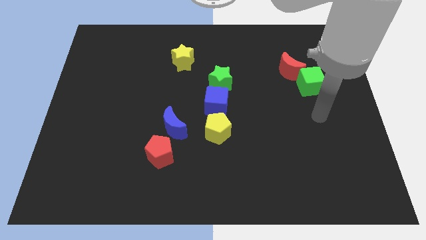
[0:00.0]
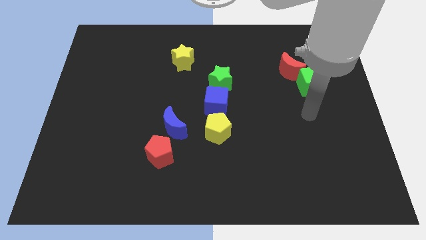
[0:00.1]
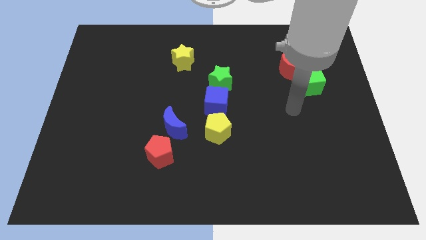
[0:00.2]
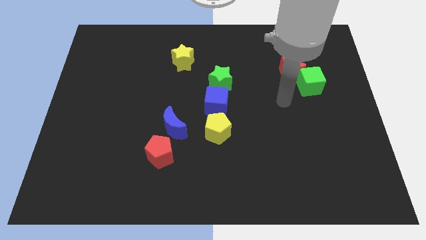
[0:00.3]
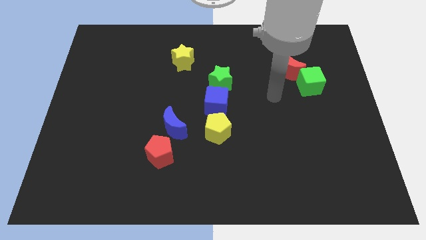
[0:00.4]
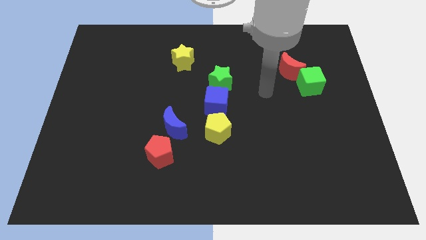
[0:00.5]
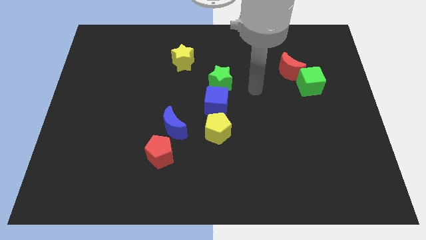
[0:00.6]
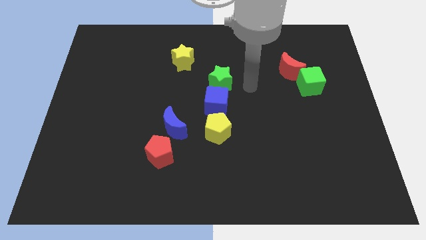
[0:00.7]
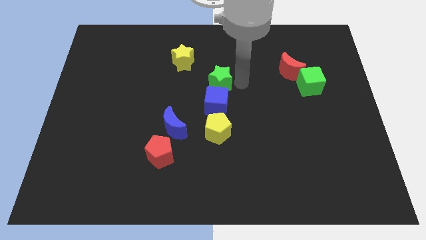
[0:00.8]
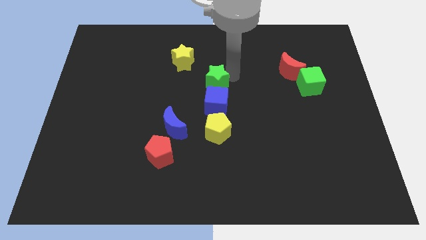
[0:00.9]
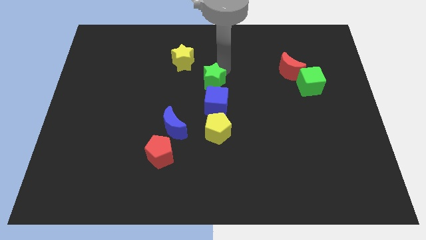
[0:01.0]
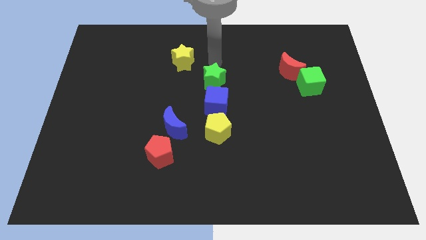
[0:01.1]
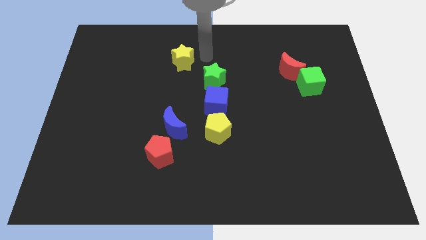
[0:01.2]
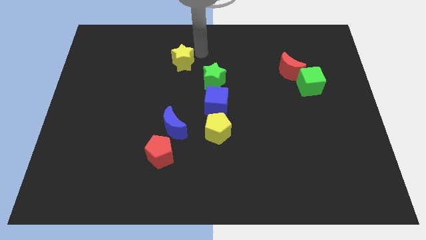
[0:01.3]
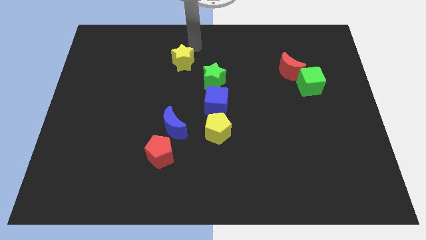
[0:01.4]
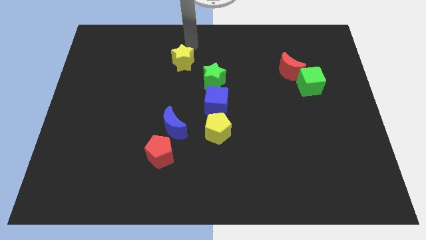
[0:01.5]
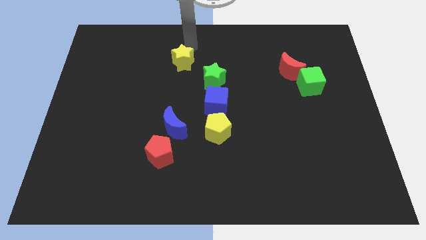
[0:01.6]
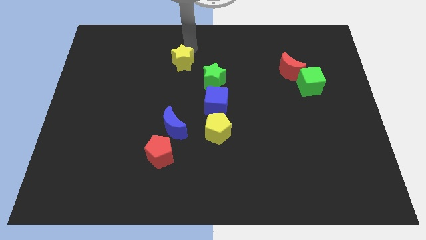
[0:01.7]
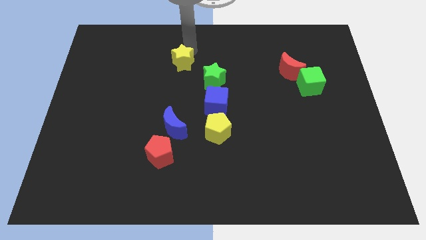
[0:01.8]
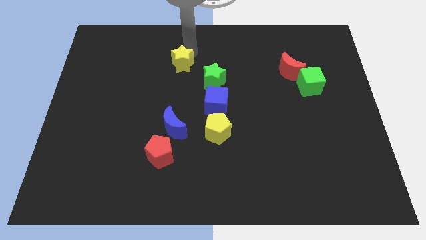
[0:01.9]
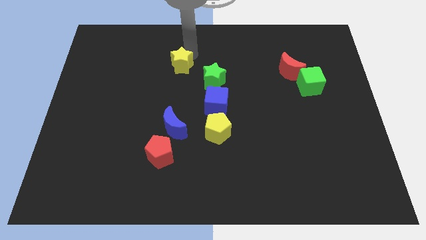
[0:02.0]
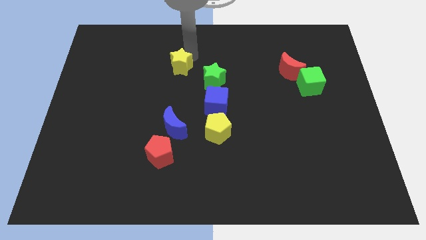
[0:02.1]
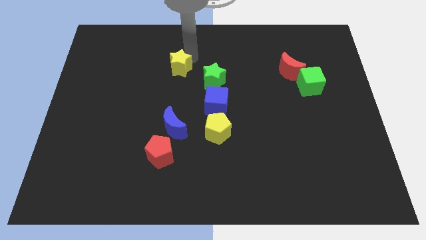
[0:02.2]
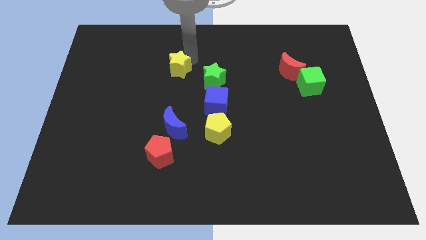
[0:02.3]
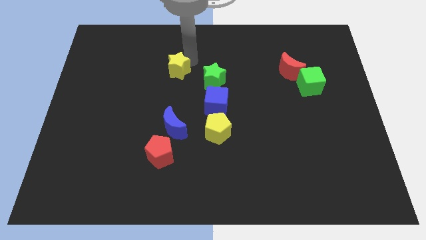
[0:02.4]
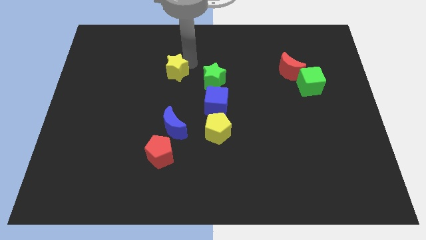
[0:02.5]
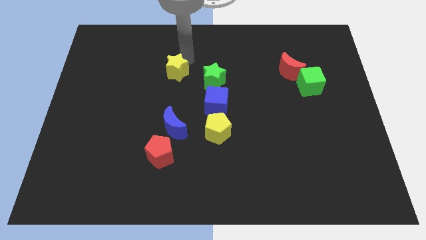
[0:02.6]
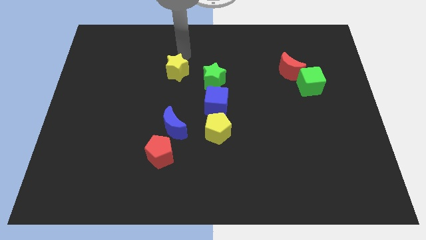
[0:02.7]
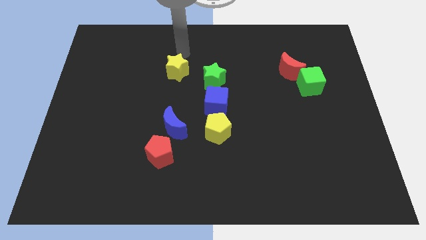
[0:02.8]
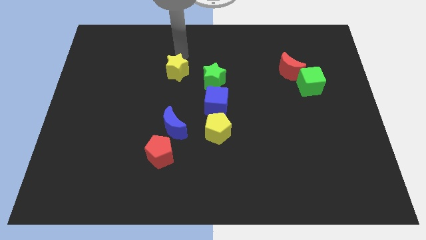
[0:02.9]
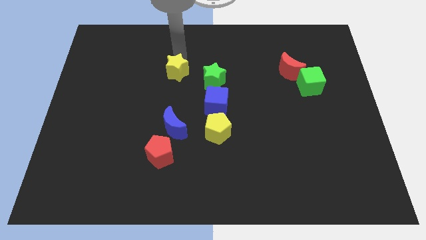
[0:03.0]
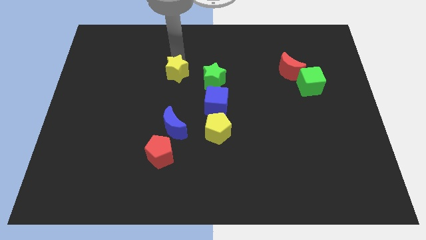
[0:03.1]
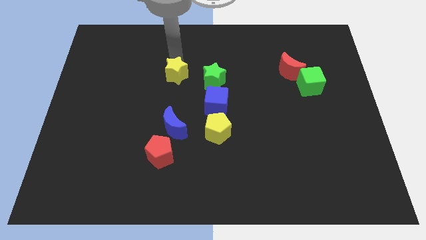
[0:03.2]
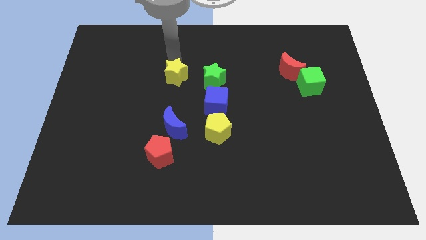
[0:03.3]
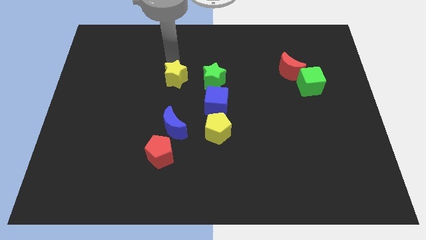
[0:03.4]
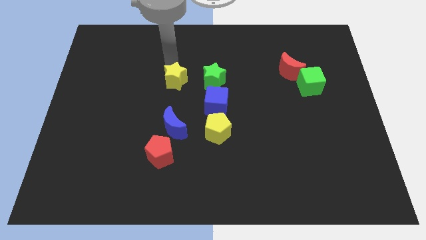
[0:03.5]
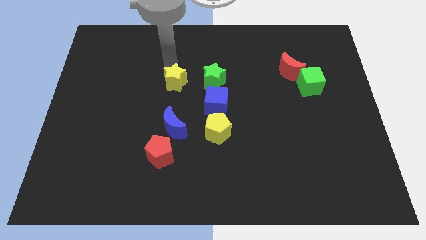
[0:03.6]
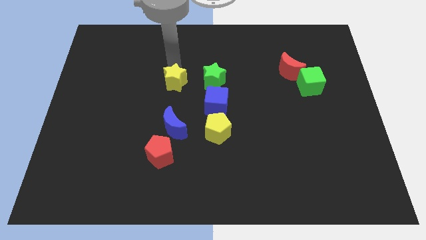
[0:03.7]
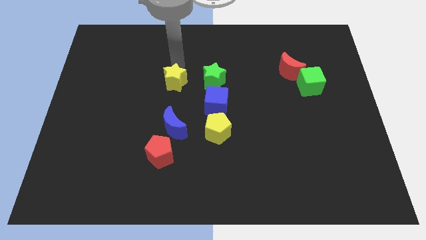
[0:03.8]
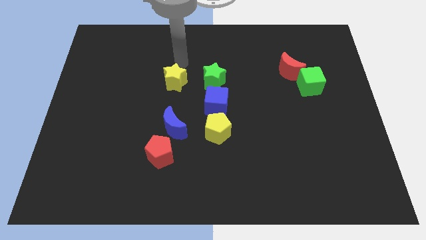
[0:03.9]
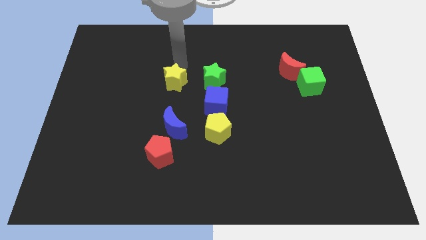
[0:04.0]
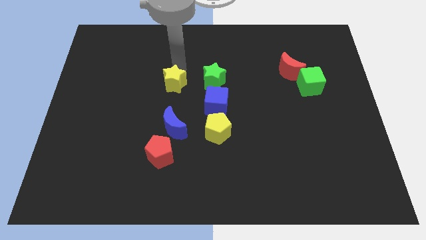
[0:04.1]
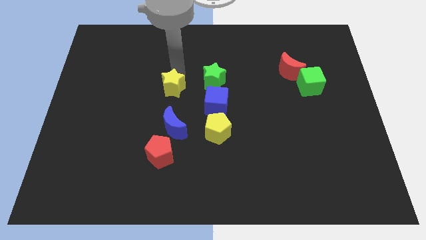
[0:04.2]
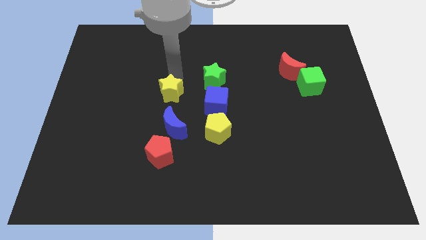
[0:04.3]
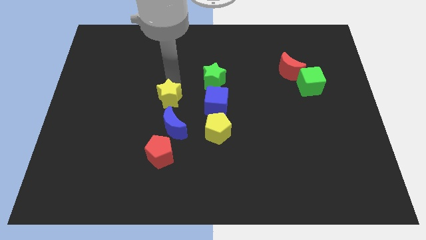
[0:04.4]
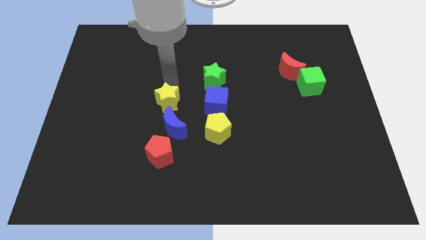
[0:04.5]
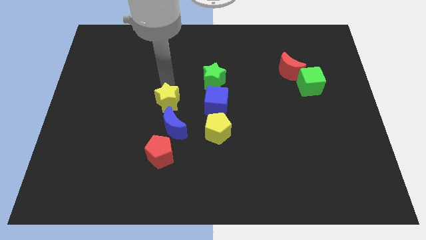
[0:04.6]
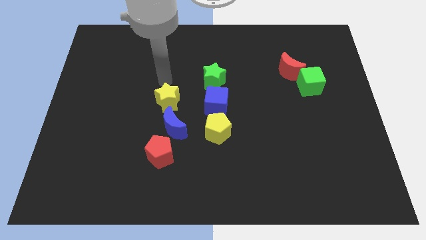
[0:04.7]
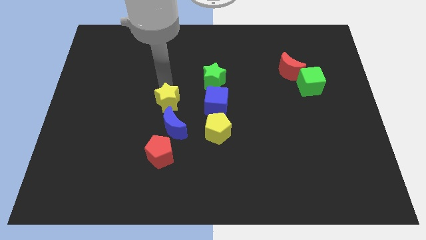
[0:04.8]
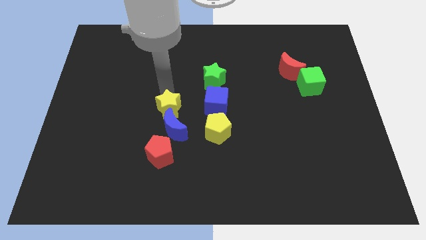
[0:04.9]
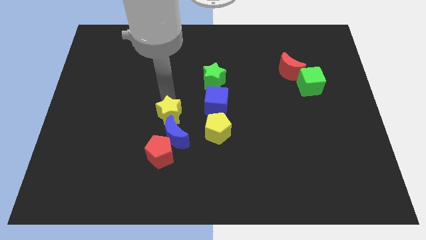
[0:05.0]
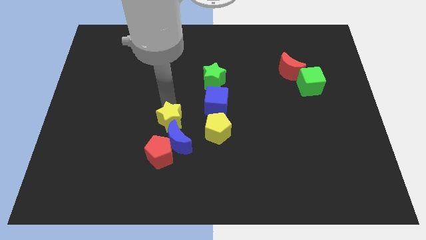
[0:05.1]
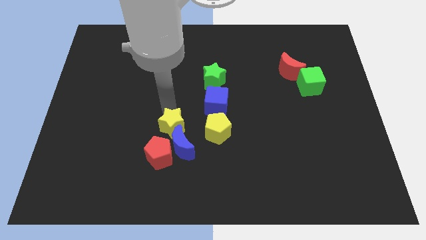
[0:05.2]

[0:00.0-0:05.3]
put the yellow star towards the blue moon

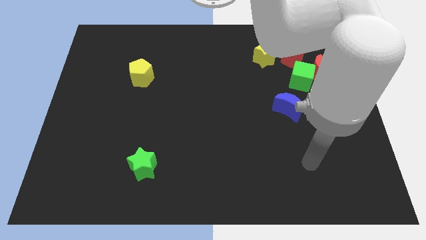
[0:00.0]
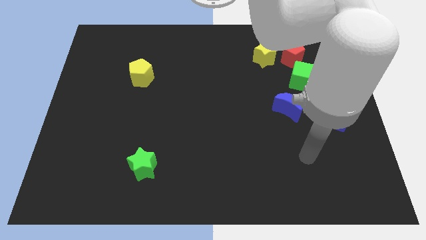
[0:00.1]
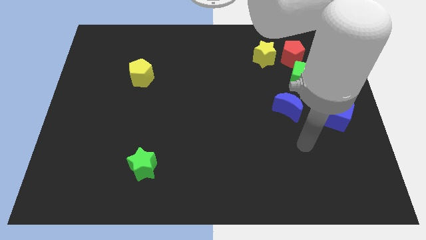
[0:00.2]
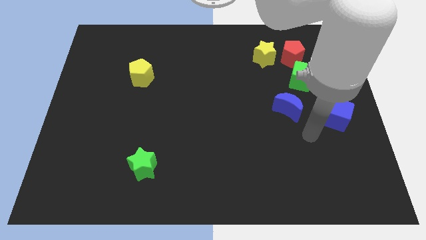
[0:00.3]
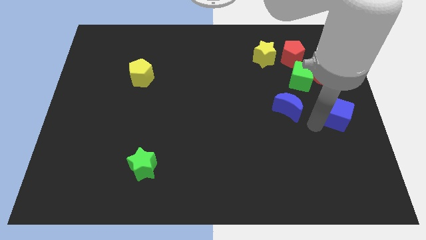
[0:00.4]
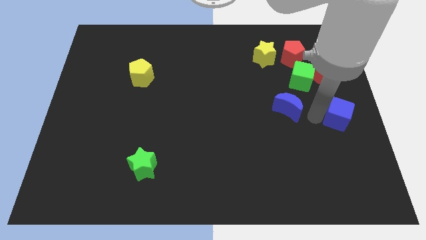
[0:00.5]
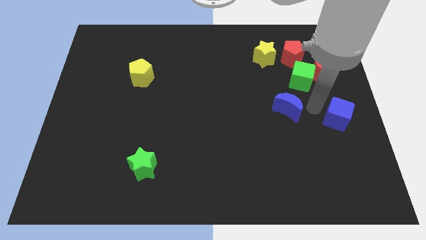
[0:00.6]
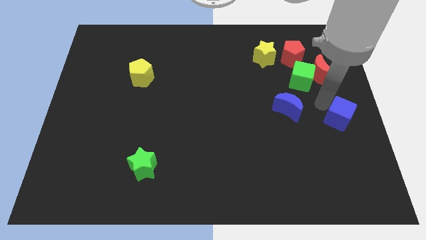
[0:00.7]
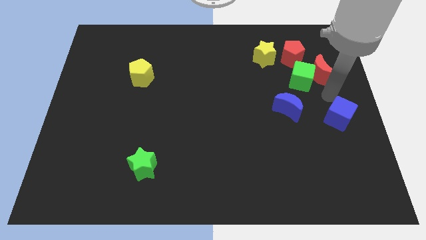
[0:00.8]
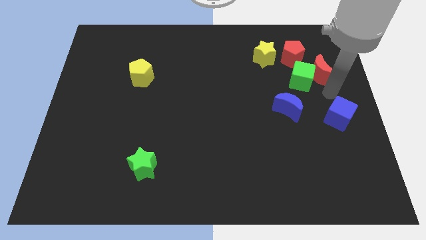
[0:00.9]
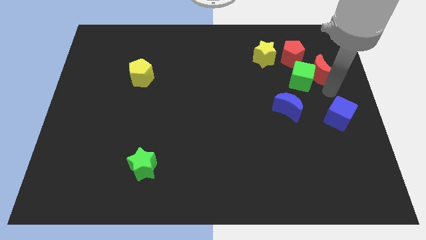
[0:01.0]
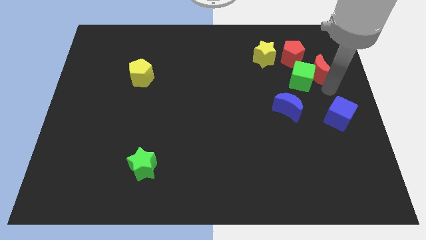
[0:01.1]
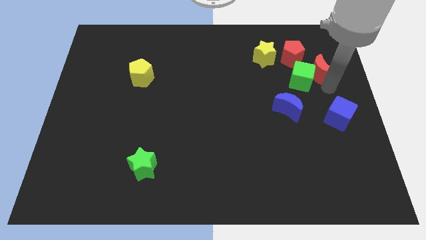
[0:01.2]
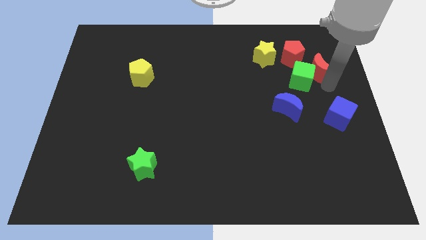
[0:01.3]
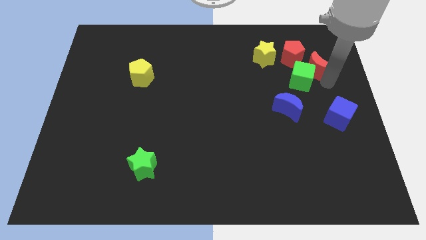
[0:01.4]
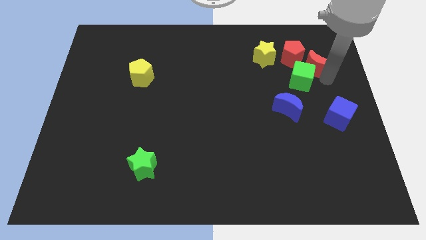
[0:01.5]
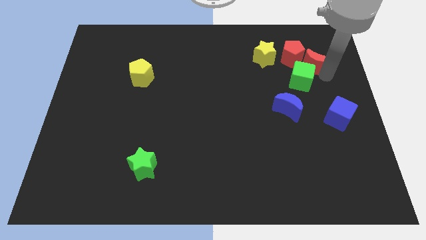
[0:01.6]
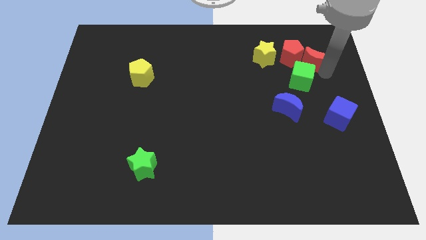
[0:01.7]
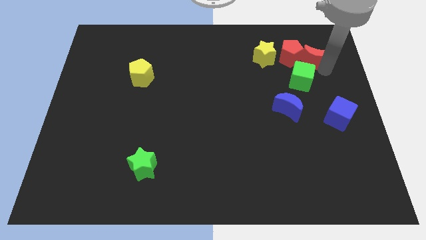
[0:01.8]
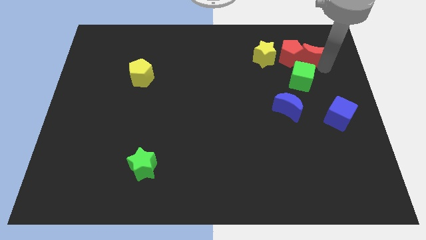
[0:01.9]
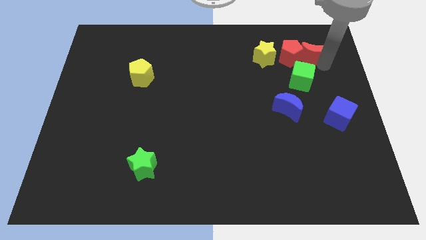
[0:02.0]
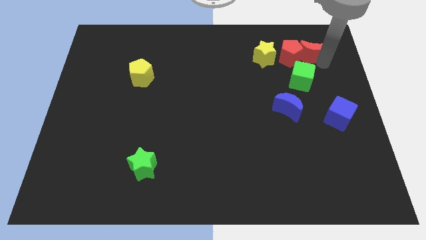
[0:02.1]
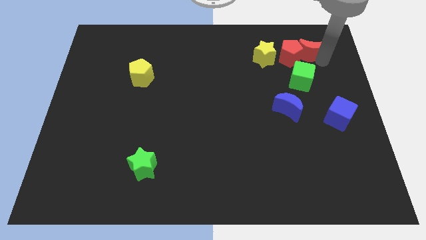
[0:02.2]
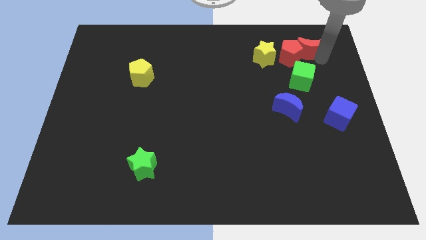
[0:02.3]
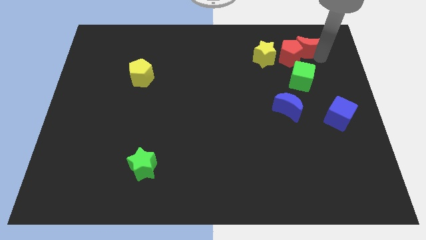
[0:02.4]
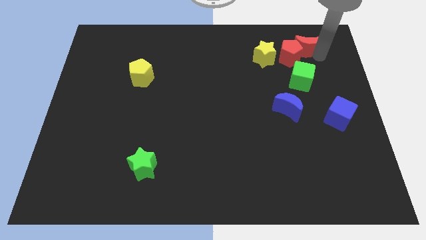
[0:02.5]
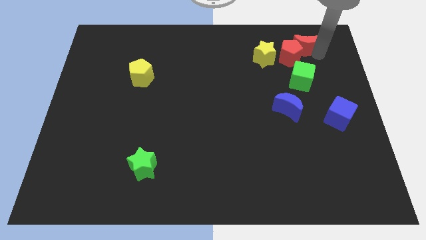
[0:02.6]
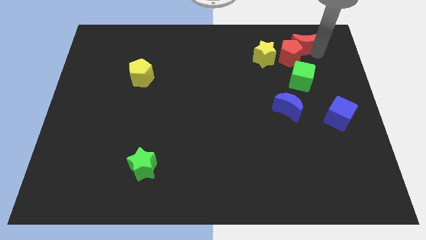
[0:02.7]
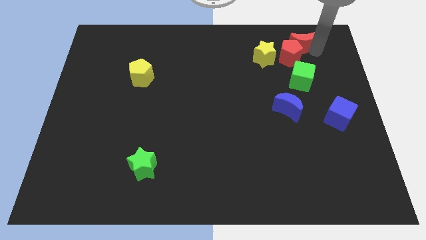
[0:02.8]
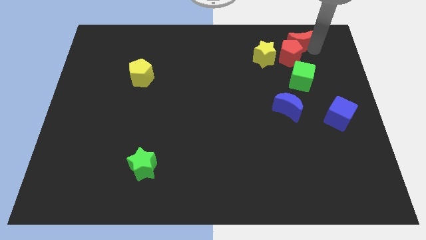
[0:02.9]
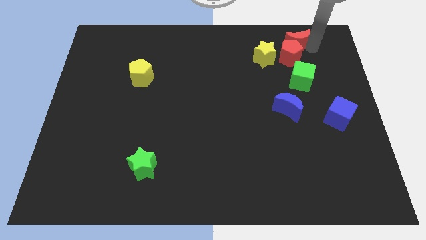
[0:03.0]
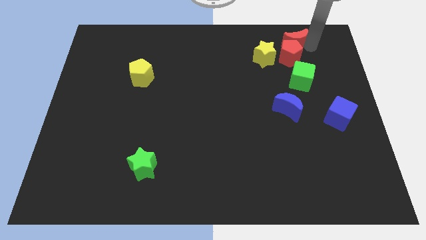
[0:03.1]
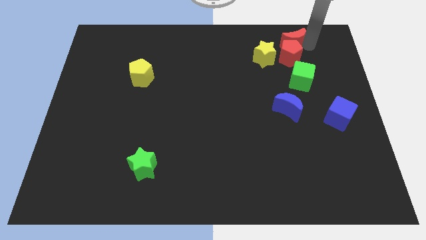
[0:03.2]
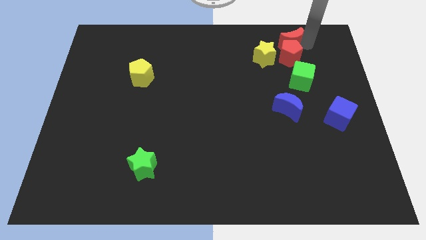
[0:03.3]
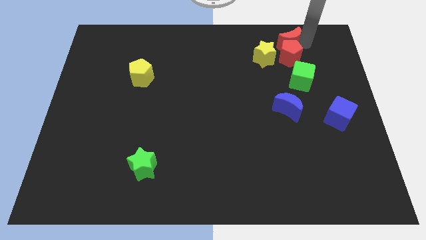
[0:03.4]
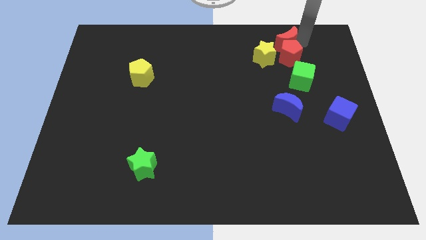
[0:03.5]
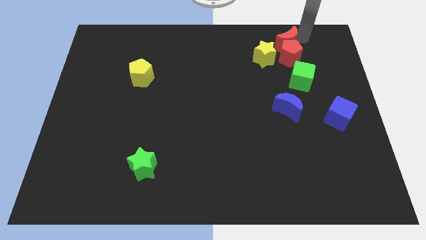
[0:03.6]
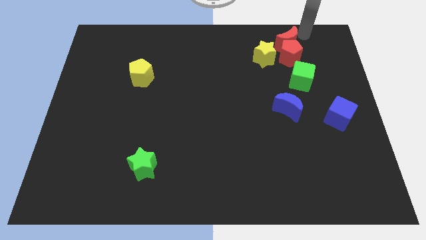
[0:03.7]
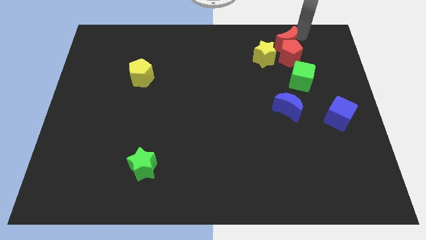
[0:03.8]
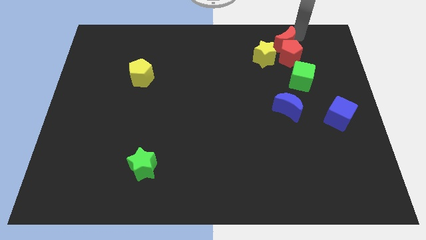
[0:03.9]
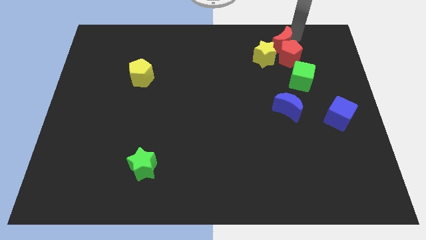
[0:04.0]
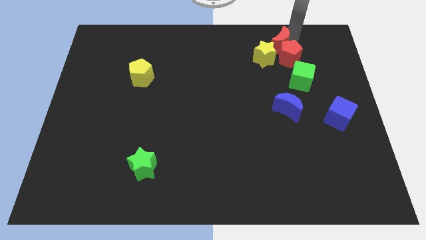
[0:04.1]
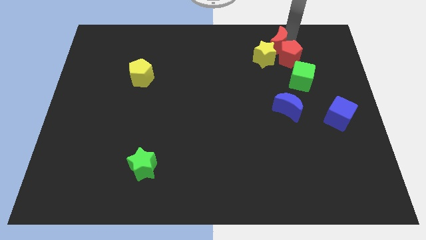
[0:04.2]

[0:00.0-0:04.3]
push the red moon close to the yellow star
